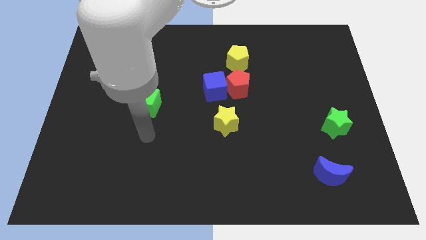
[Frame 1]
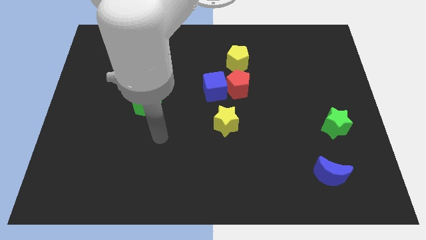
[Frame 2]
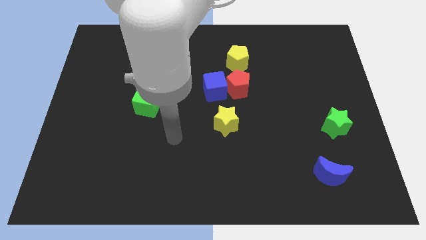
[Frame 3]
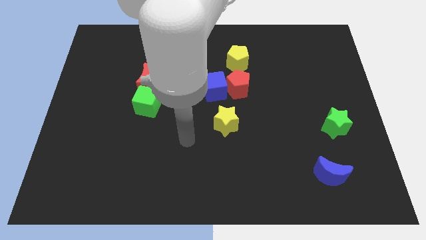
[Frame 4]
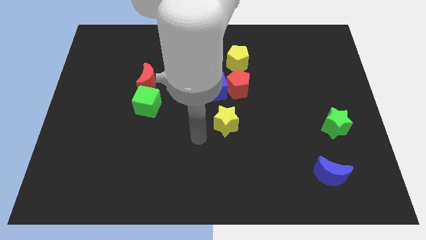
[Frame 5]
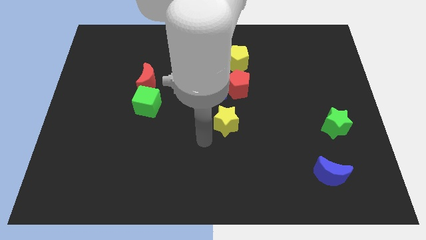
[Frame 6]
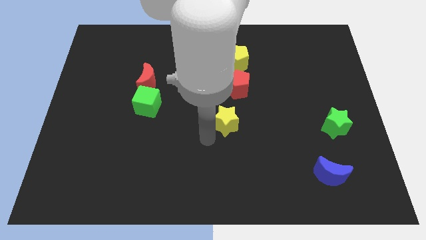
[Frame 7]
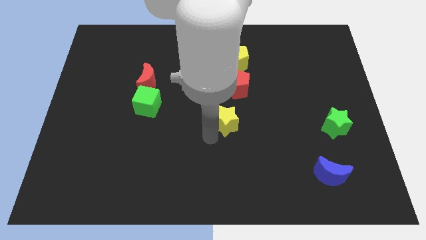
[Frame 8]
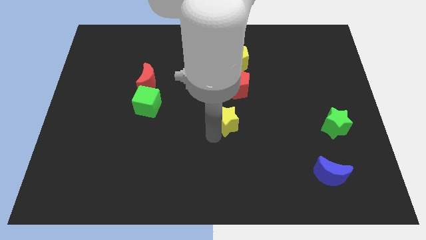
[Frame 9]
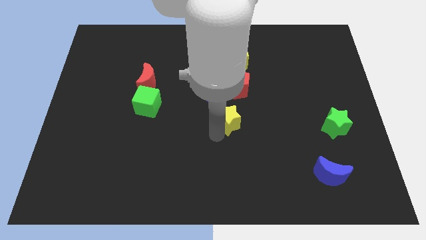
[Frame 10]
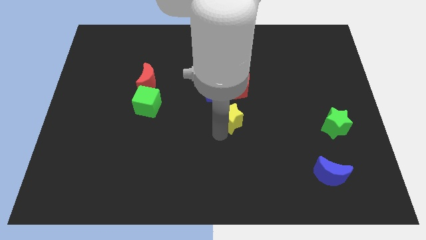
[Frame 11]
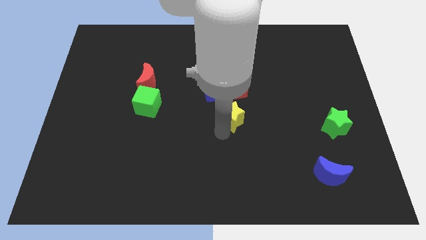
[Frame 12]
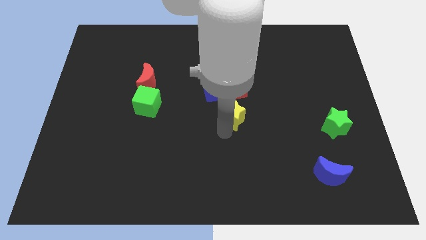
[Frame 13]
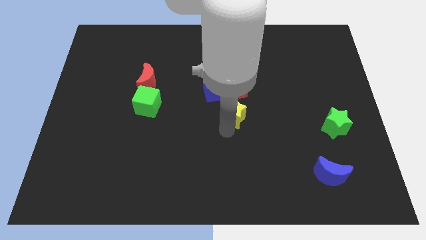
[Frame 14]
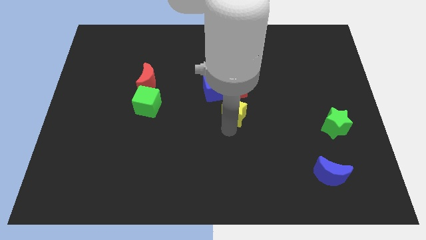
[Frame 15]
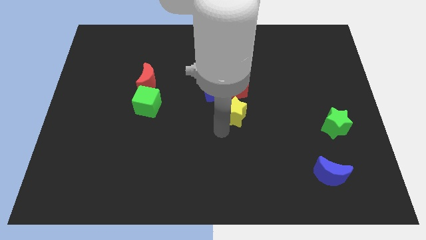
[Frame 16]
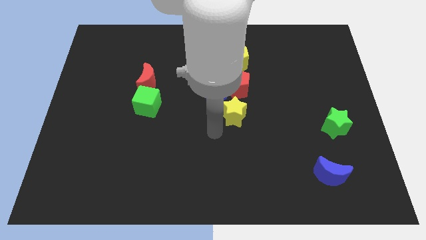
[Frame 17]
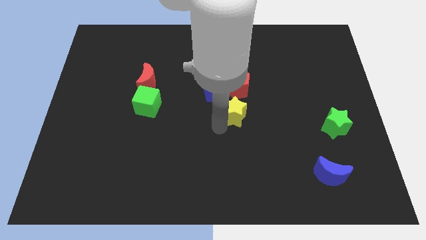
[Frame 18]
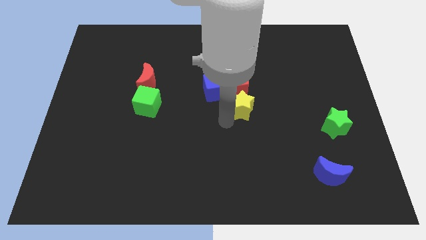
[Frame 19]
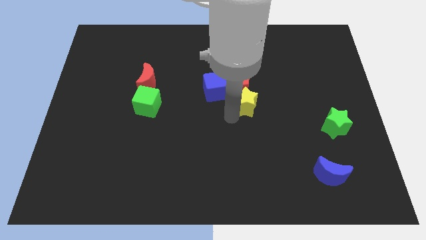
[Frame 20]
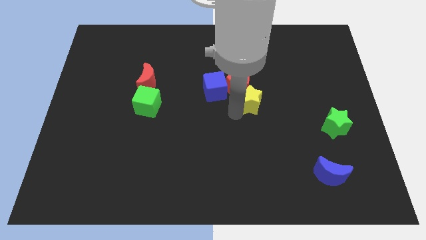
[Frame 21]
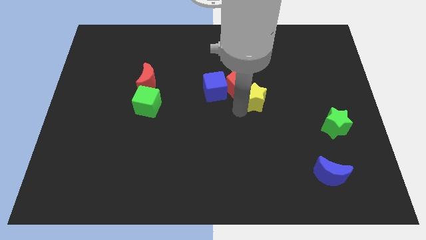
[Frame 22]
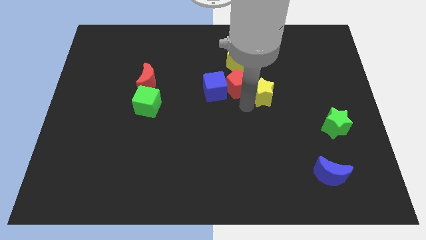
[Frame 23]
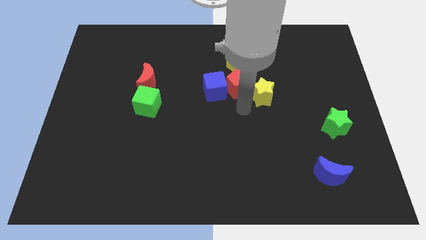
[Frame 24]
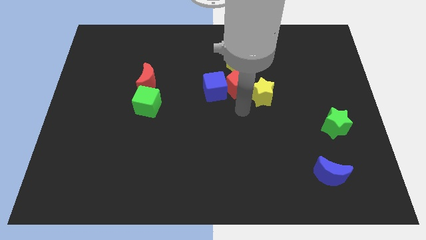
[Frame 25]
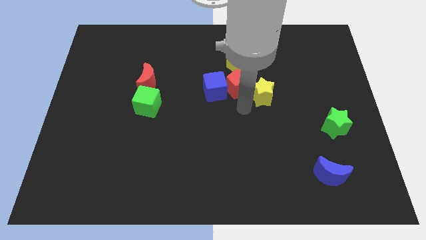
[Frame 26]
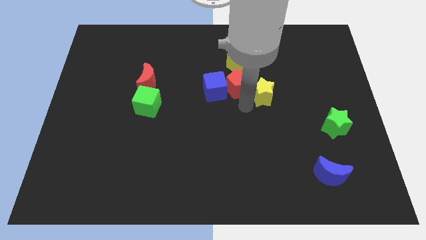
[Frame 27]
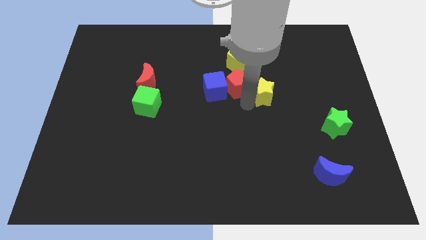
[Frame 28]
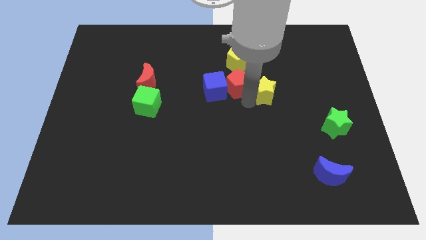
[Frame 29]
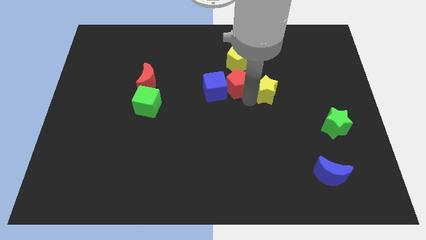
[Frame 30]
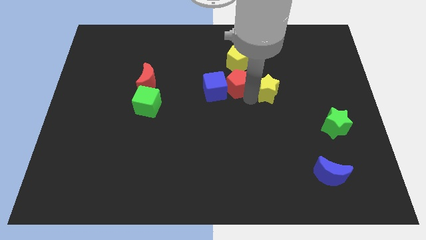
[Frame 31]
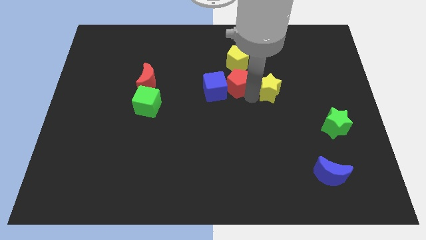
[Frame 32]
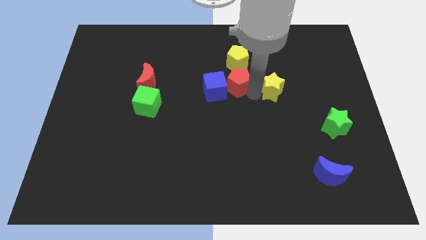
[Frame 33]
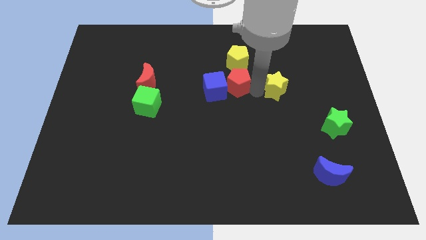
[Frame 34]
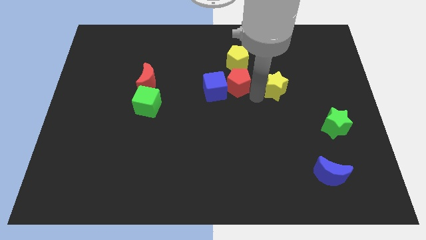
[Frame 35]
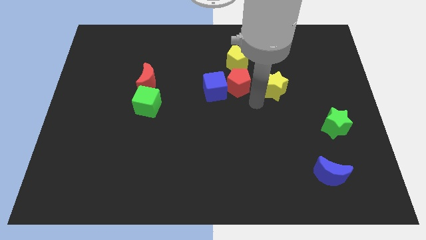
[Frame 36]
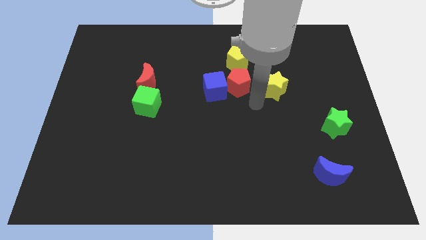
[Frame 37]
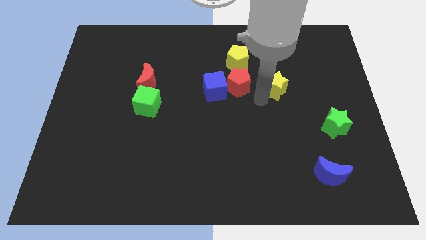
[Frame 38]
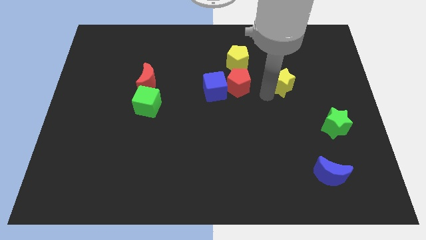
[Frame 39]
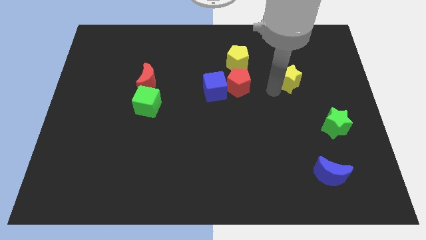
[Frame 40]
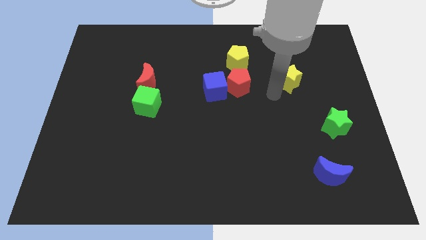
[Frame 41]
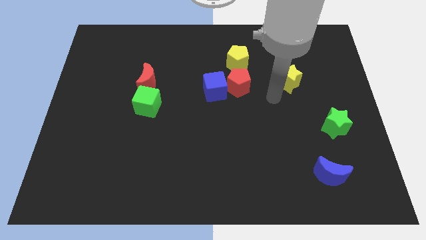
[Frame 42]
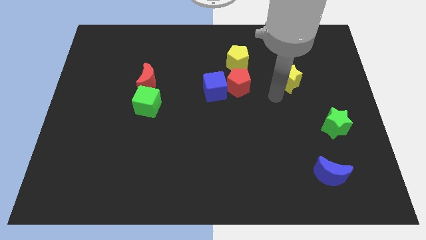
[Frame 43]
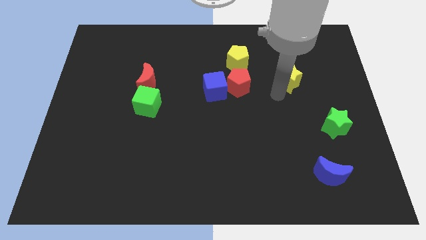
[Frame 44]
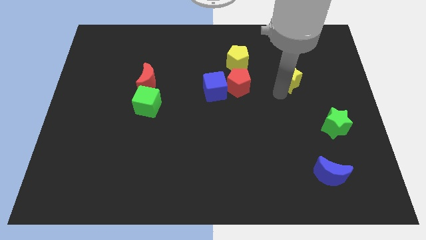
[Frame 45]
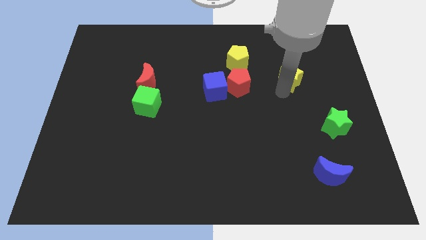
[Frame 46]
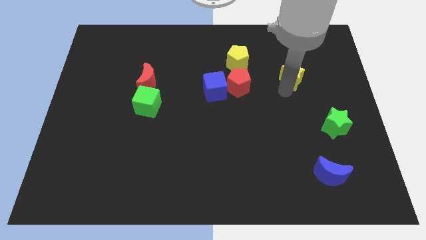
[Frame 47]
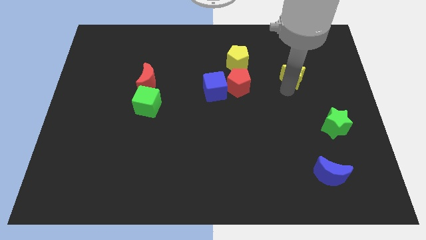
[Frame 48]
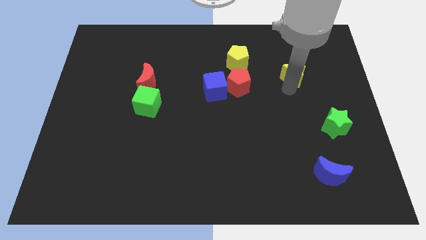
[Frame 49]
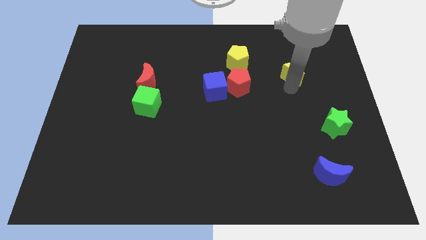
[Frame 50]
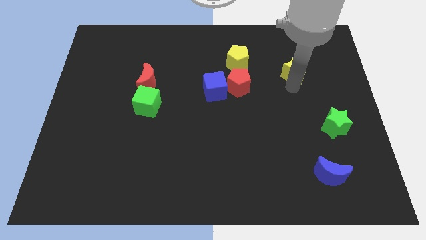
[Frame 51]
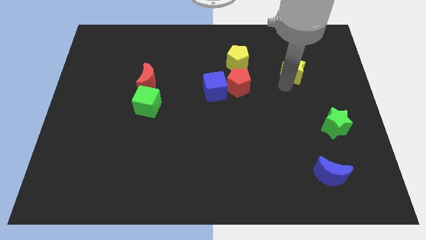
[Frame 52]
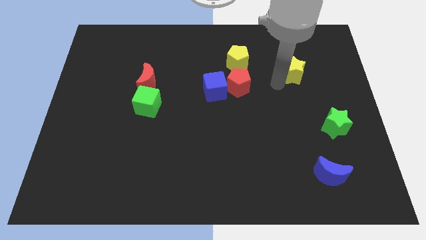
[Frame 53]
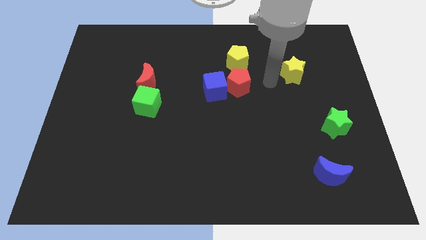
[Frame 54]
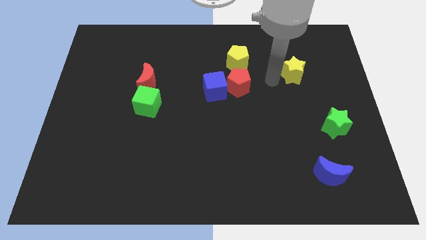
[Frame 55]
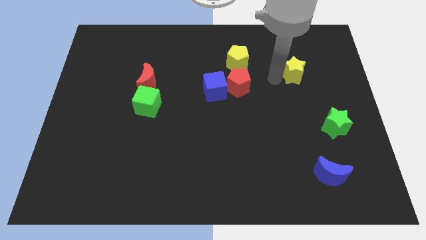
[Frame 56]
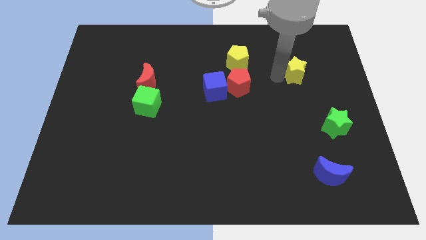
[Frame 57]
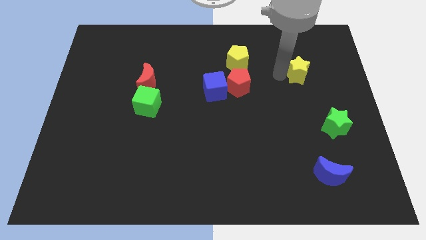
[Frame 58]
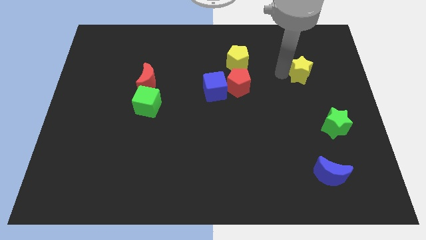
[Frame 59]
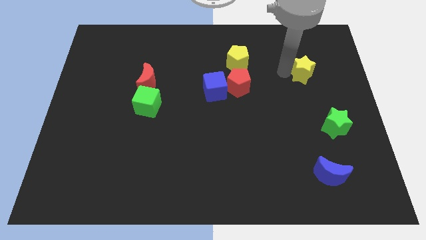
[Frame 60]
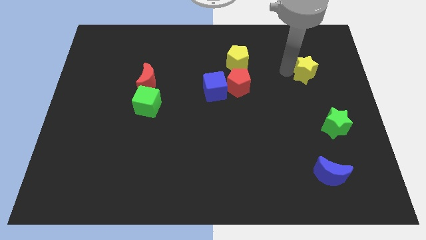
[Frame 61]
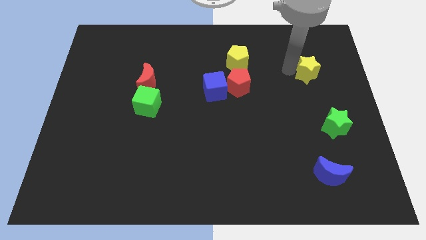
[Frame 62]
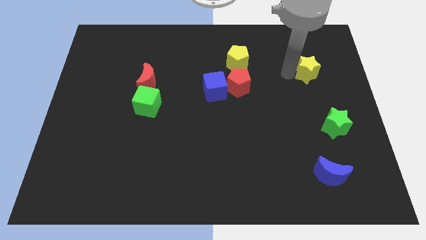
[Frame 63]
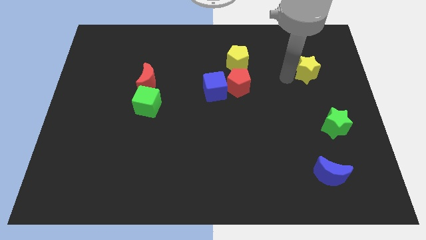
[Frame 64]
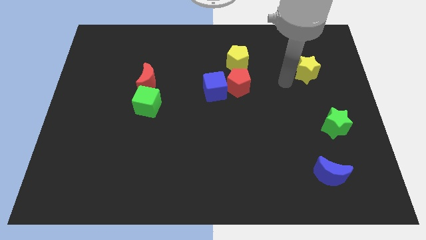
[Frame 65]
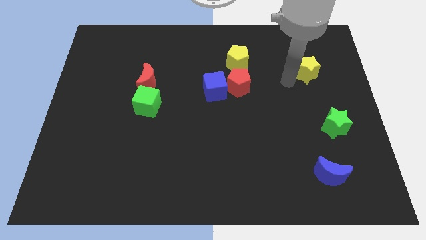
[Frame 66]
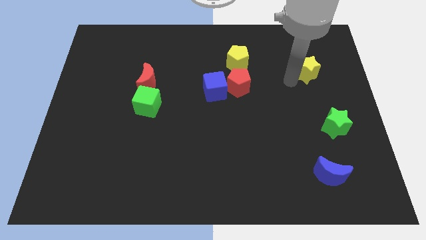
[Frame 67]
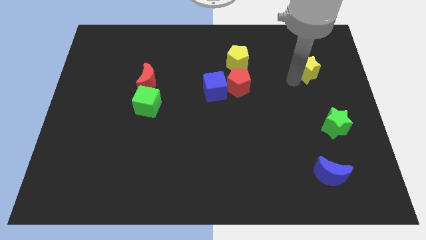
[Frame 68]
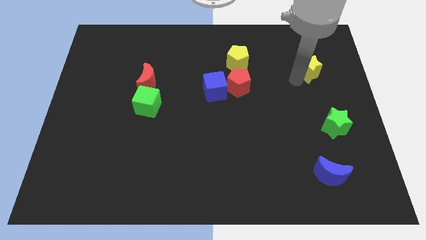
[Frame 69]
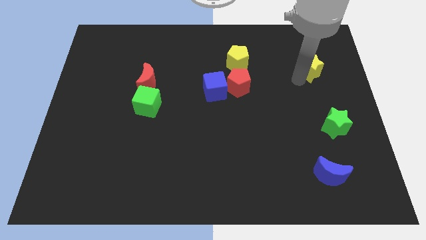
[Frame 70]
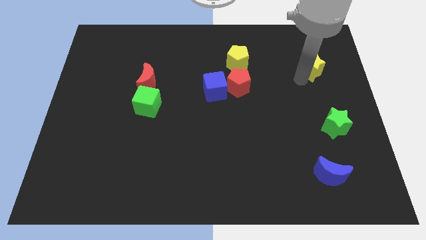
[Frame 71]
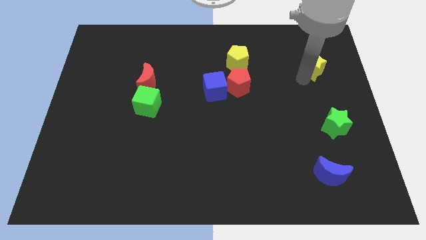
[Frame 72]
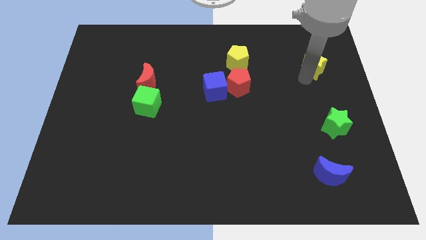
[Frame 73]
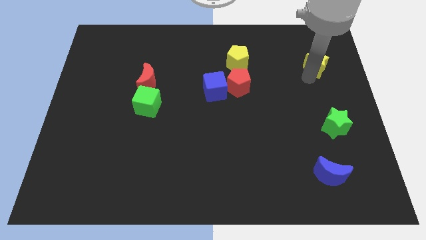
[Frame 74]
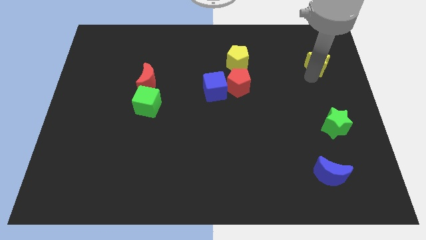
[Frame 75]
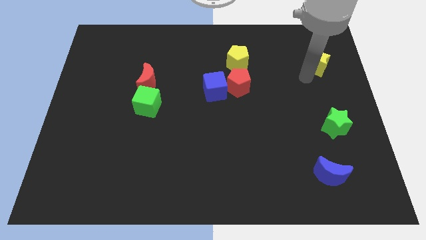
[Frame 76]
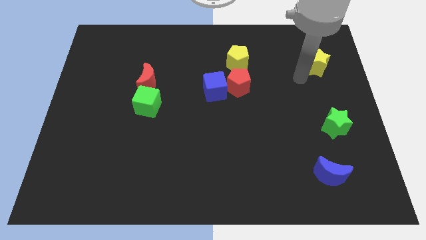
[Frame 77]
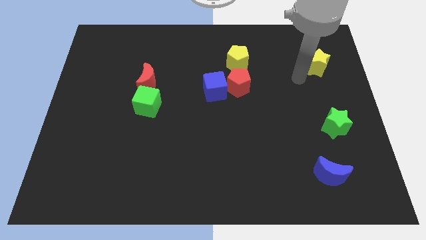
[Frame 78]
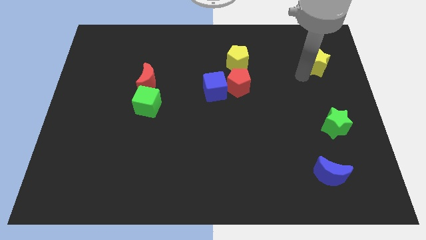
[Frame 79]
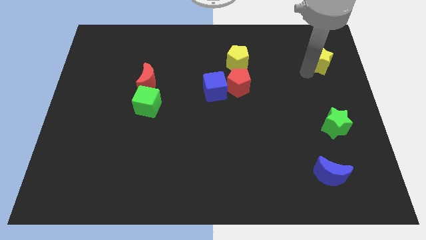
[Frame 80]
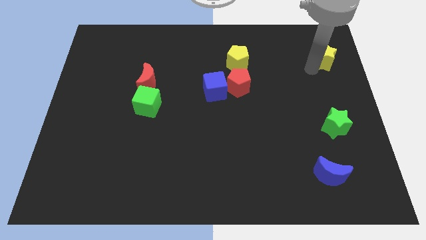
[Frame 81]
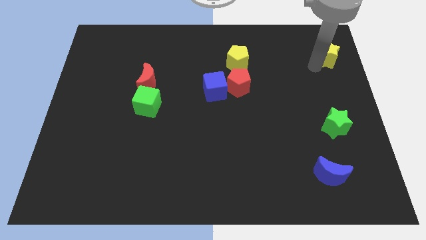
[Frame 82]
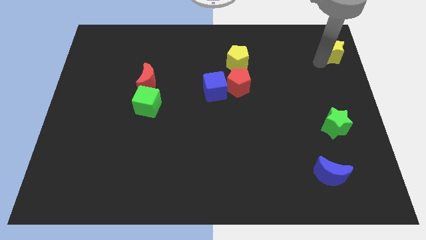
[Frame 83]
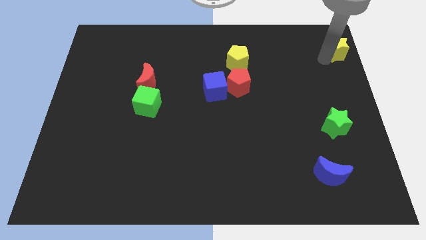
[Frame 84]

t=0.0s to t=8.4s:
slide the yellow star to the top right of the board
